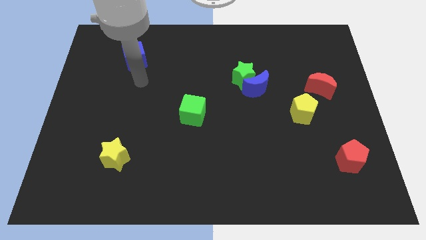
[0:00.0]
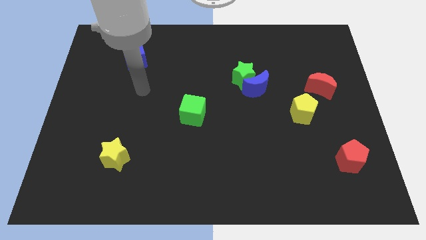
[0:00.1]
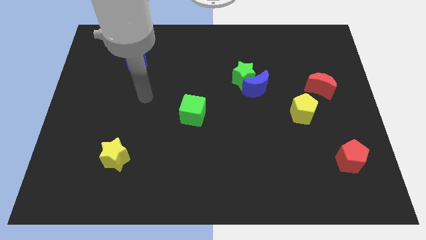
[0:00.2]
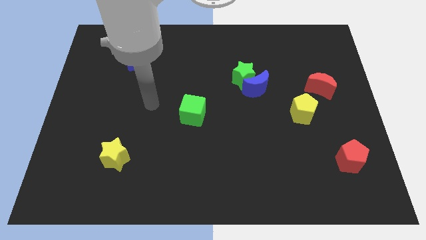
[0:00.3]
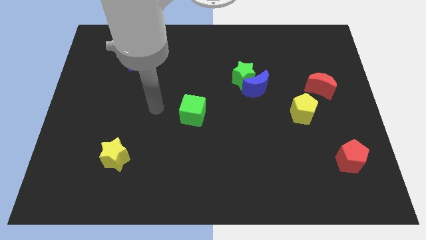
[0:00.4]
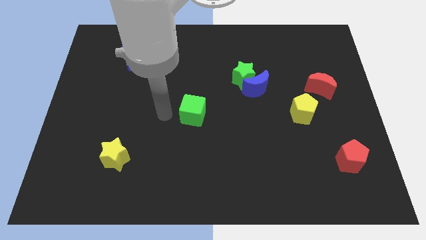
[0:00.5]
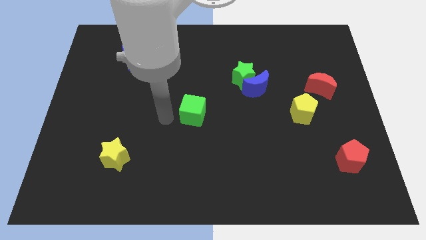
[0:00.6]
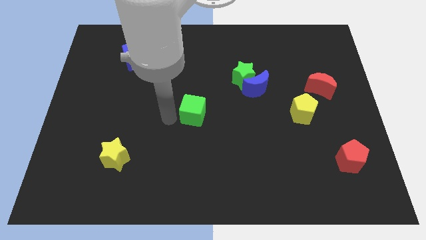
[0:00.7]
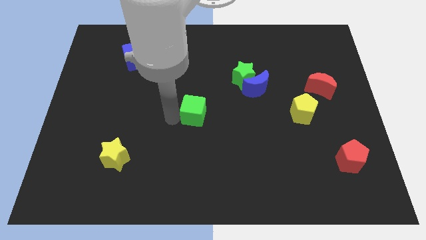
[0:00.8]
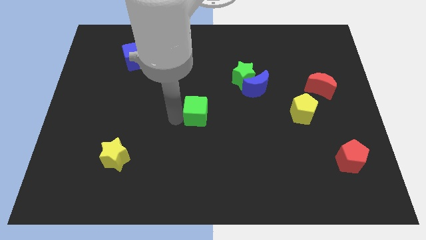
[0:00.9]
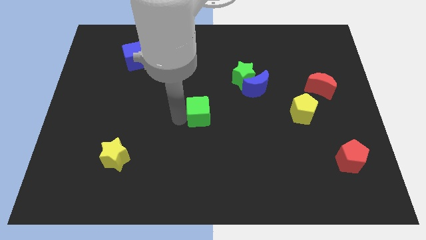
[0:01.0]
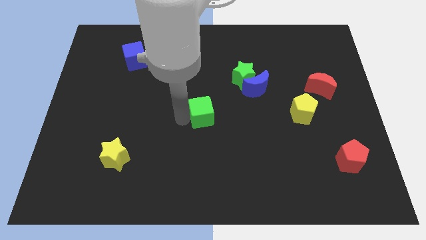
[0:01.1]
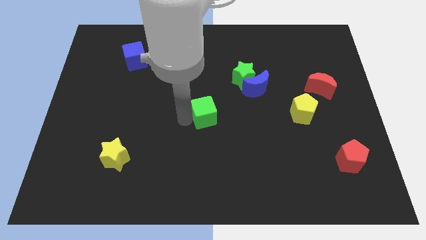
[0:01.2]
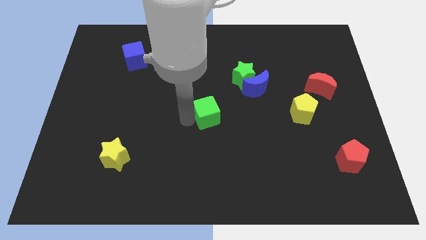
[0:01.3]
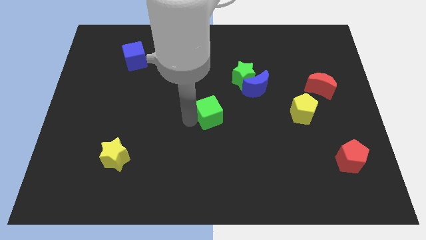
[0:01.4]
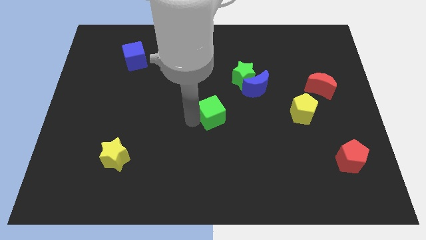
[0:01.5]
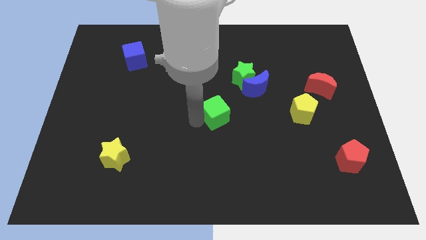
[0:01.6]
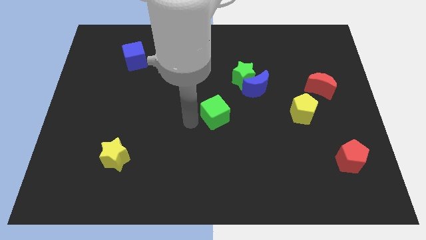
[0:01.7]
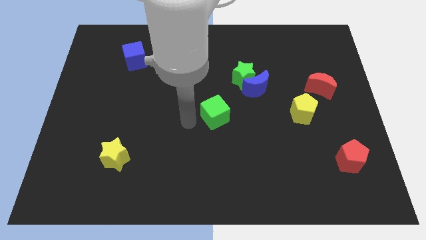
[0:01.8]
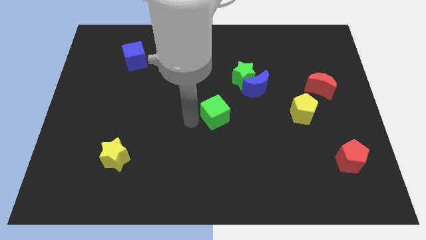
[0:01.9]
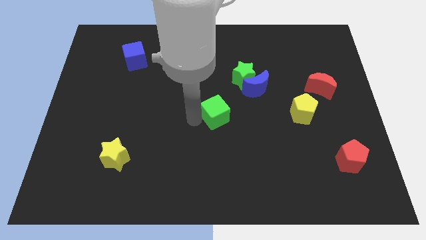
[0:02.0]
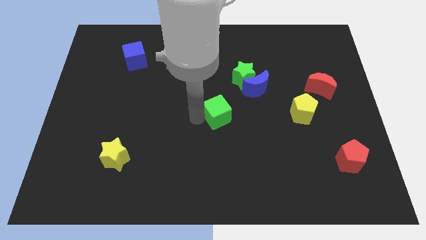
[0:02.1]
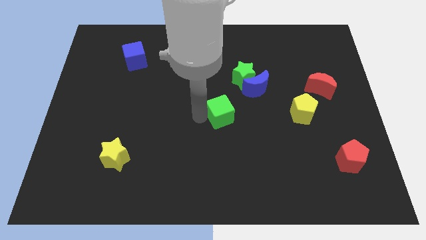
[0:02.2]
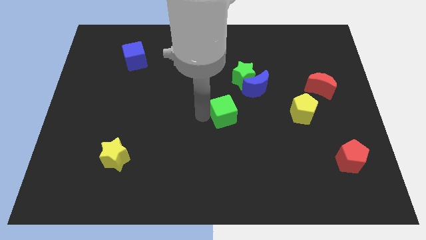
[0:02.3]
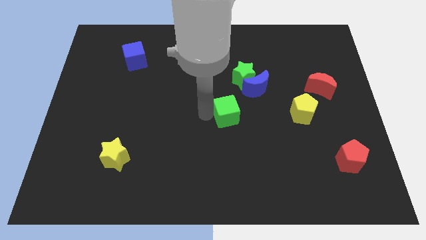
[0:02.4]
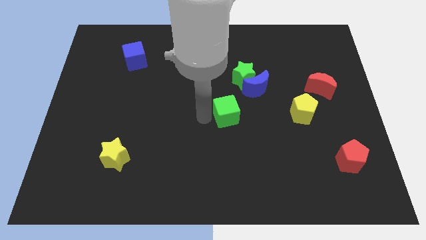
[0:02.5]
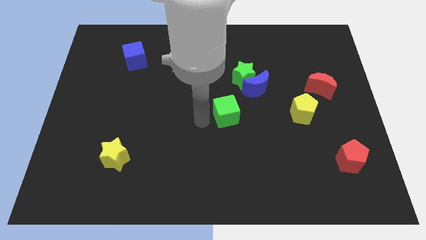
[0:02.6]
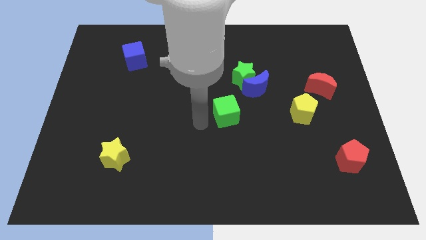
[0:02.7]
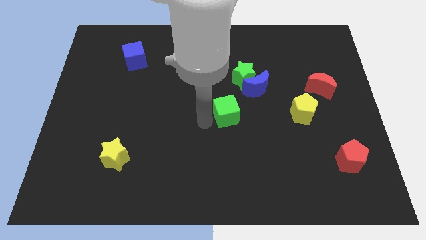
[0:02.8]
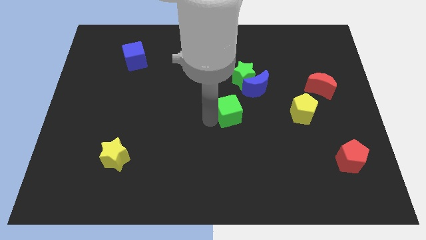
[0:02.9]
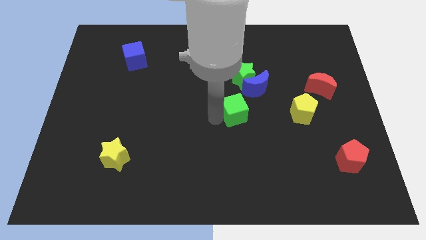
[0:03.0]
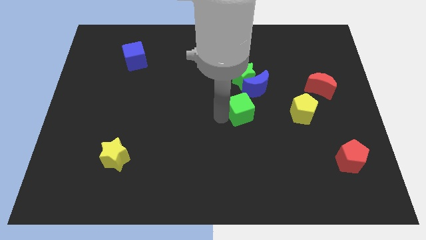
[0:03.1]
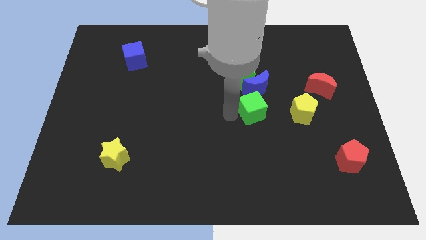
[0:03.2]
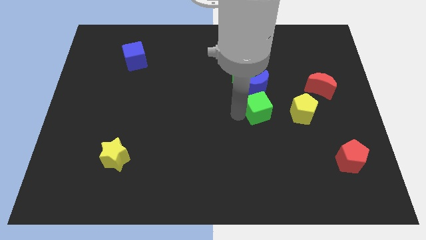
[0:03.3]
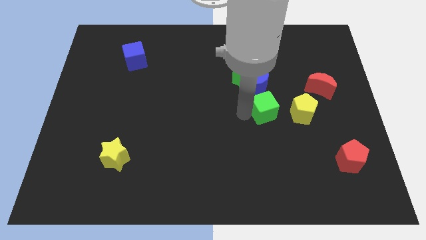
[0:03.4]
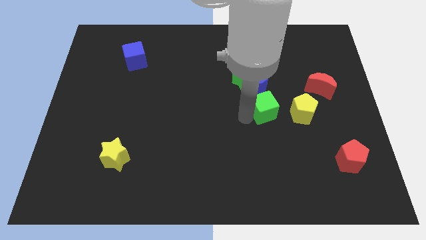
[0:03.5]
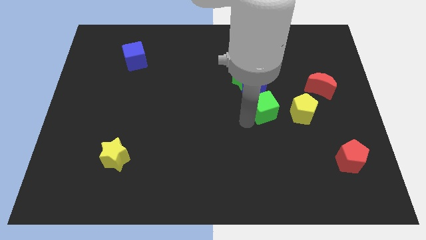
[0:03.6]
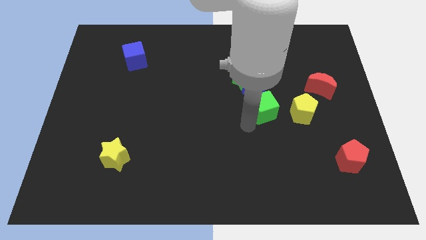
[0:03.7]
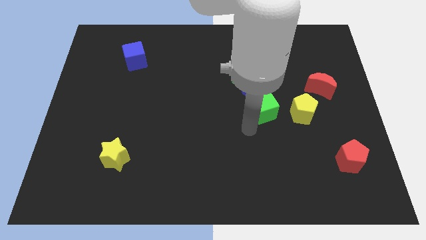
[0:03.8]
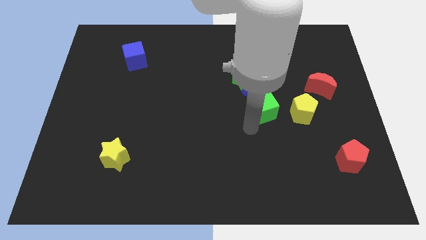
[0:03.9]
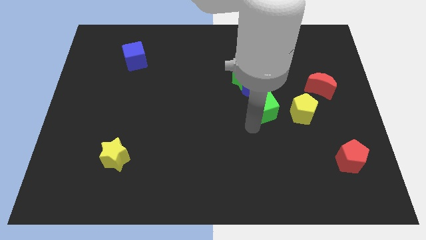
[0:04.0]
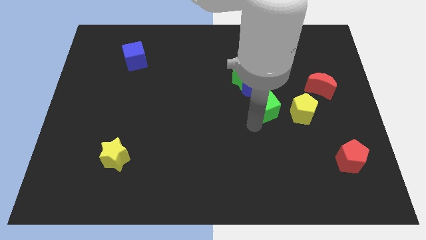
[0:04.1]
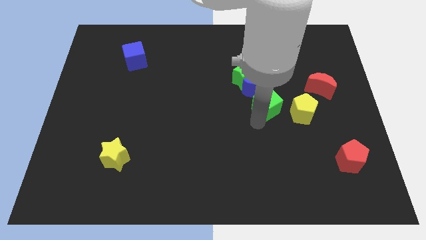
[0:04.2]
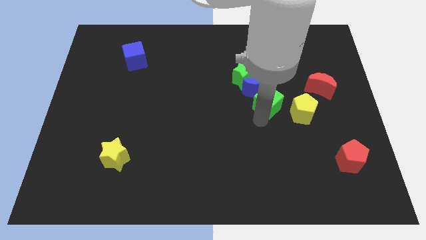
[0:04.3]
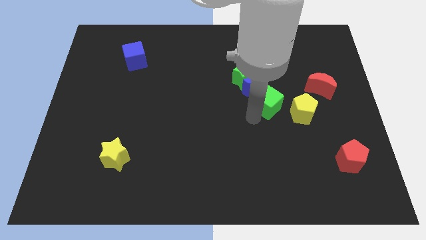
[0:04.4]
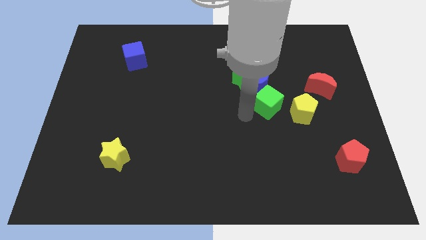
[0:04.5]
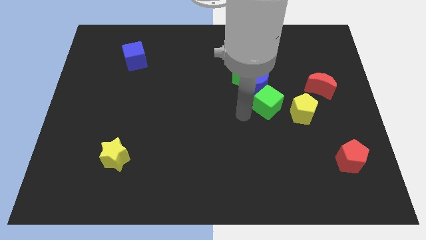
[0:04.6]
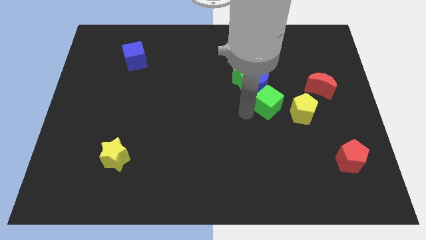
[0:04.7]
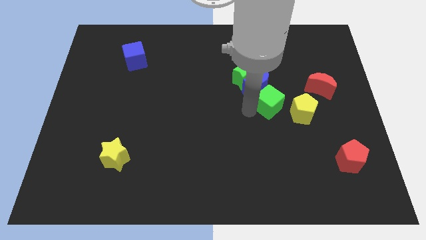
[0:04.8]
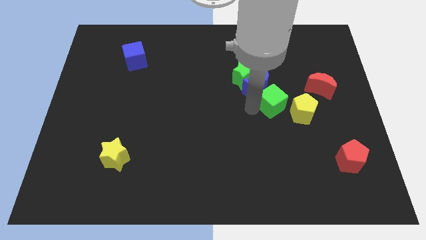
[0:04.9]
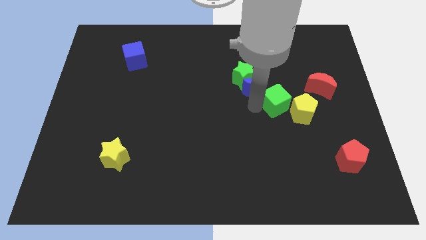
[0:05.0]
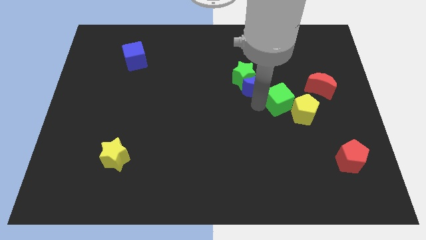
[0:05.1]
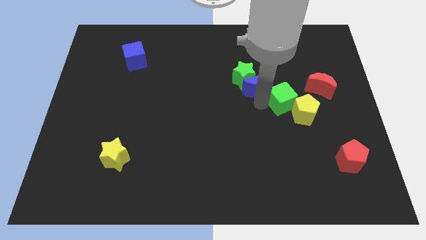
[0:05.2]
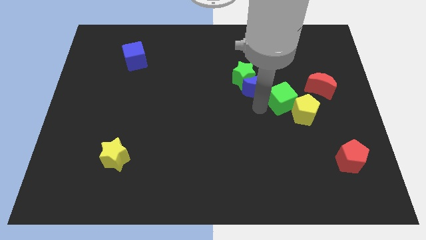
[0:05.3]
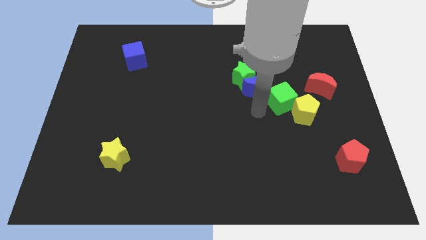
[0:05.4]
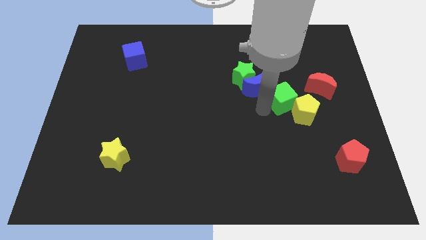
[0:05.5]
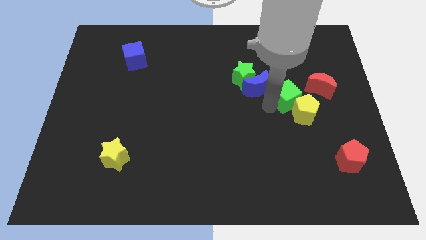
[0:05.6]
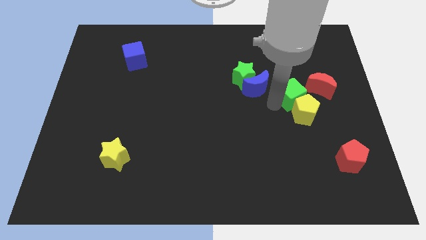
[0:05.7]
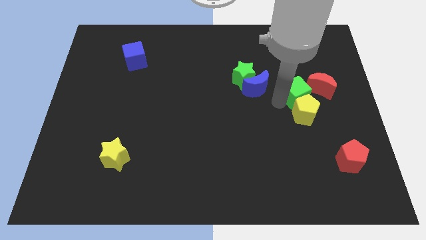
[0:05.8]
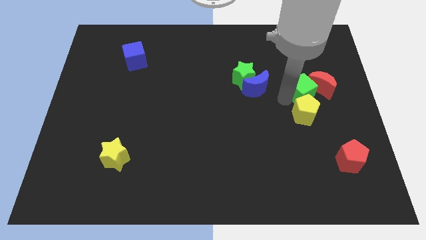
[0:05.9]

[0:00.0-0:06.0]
move the green cube close to the red moon

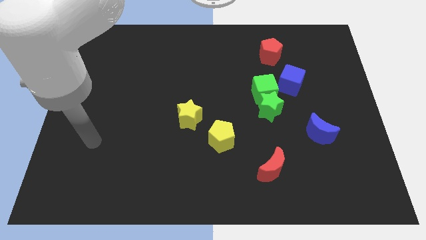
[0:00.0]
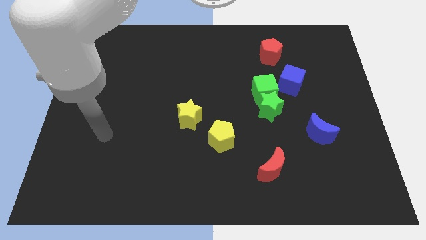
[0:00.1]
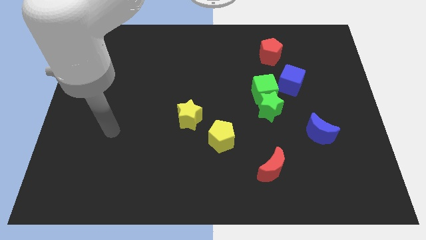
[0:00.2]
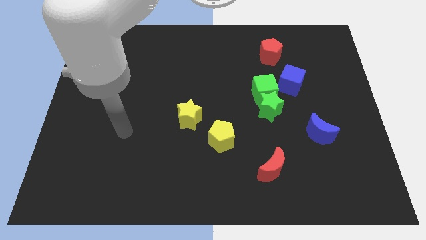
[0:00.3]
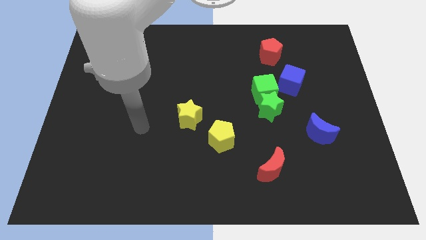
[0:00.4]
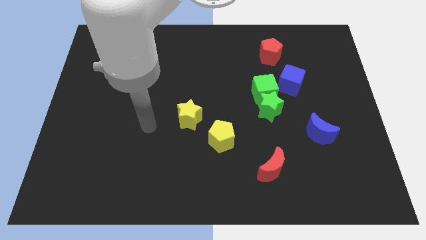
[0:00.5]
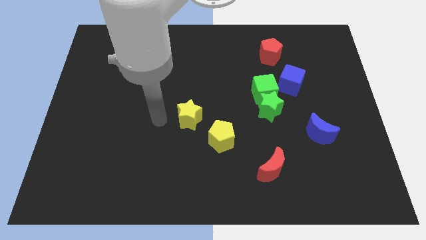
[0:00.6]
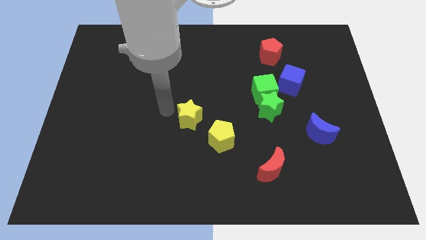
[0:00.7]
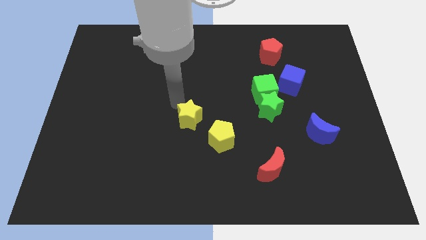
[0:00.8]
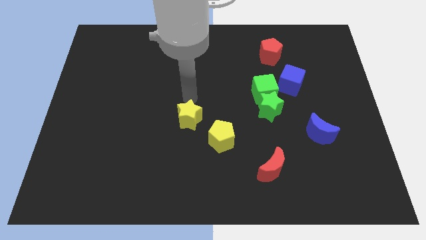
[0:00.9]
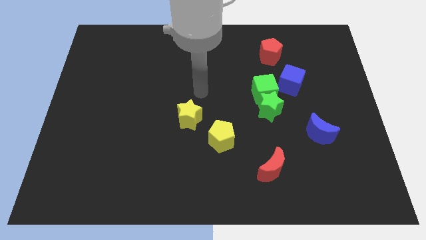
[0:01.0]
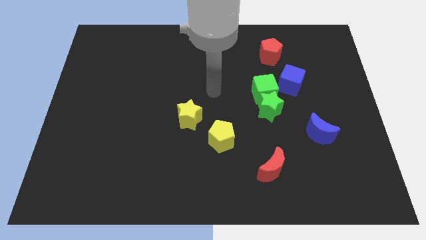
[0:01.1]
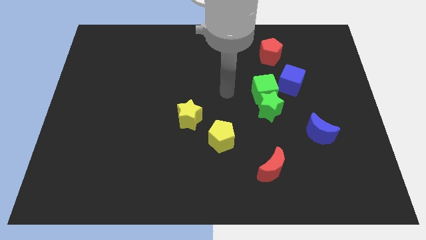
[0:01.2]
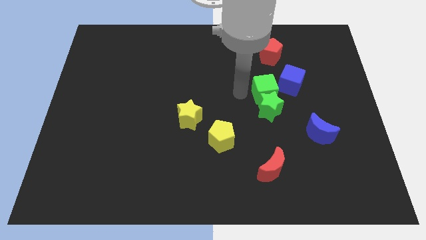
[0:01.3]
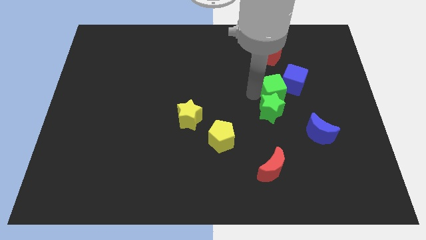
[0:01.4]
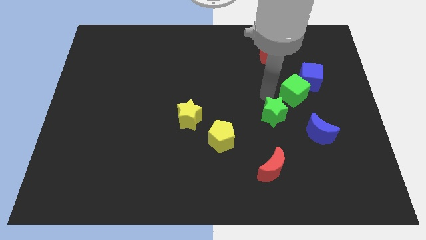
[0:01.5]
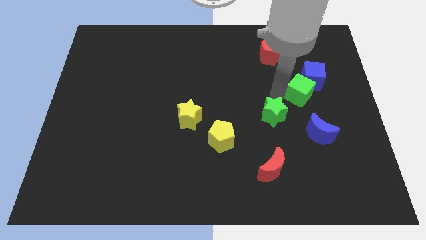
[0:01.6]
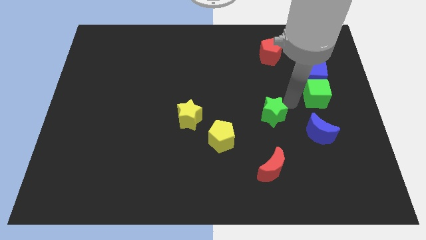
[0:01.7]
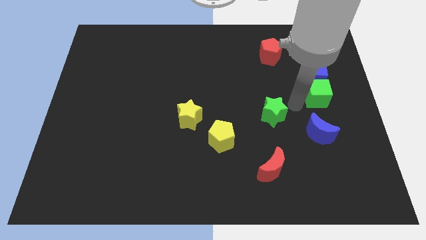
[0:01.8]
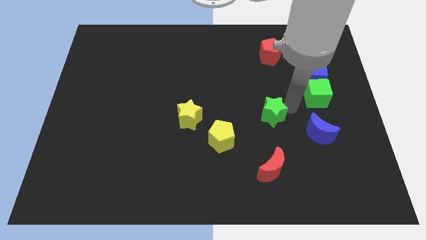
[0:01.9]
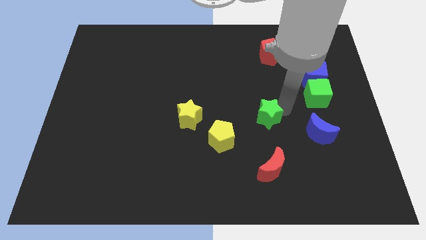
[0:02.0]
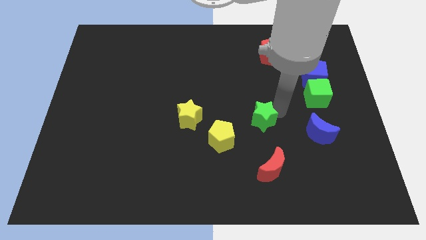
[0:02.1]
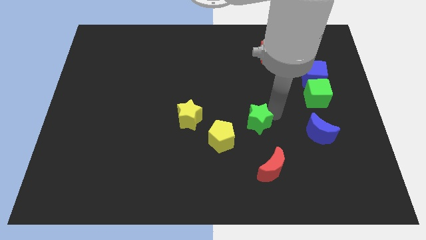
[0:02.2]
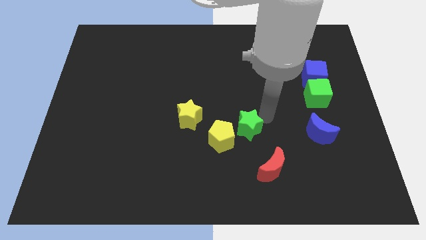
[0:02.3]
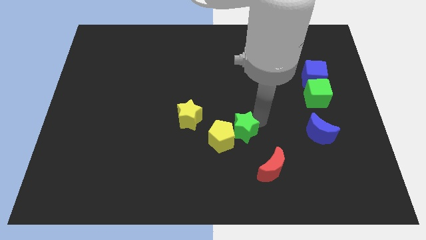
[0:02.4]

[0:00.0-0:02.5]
put the green star next to the yellow pentagon
